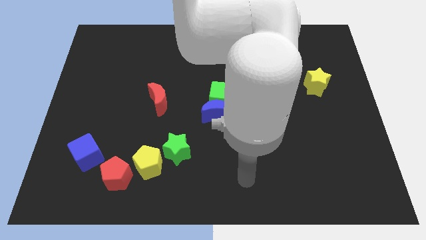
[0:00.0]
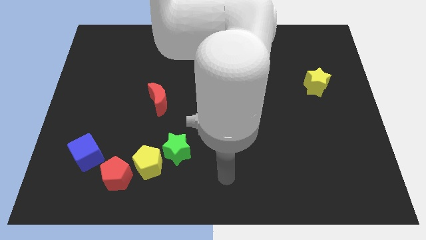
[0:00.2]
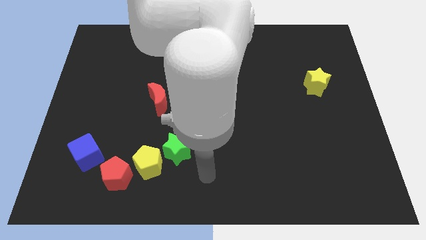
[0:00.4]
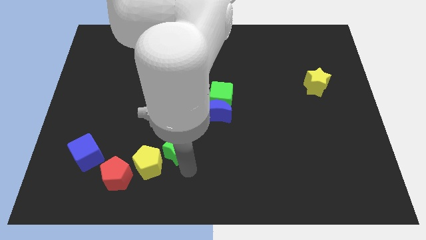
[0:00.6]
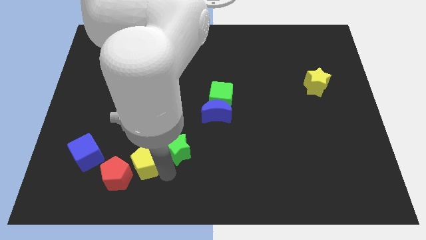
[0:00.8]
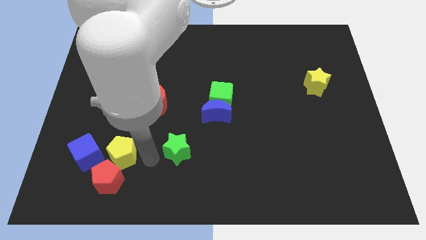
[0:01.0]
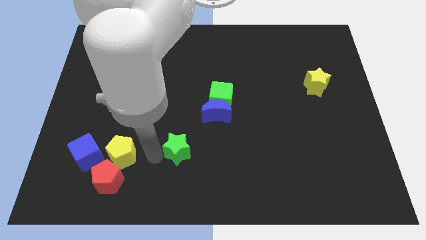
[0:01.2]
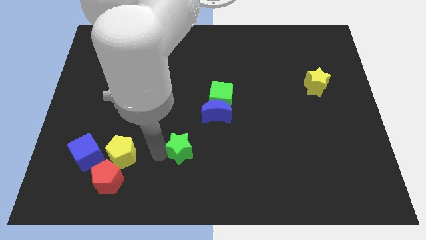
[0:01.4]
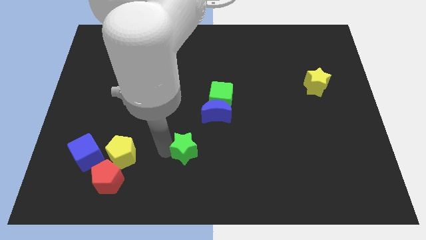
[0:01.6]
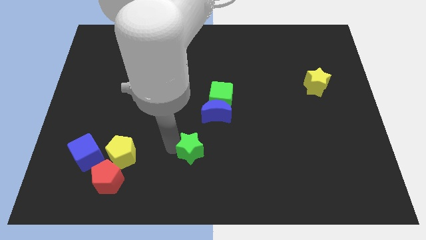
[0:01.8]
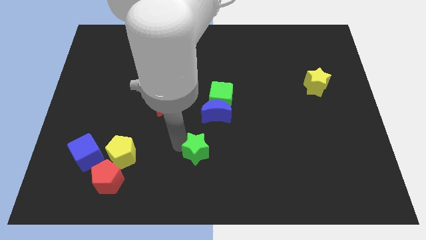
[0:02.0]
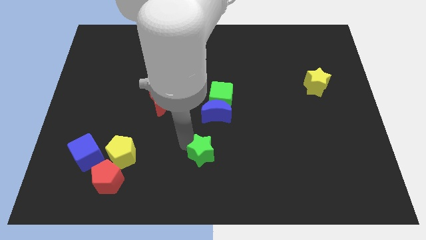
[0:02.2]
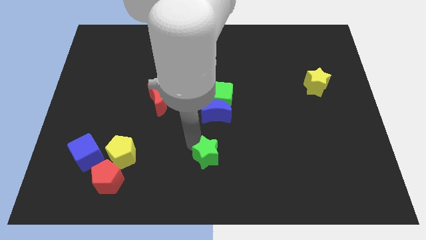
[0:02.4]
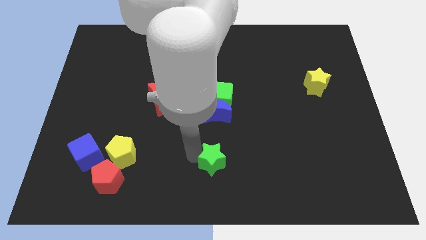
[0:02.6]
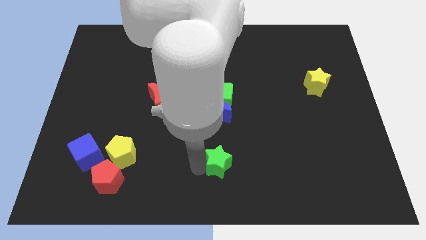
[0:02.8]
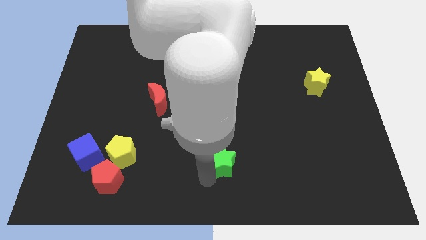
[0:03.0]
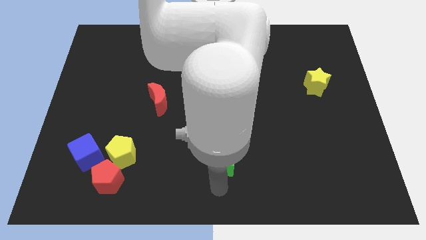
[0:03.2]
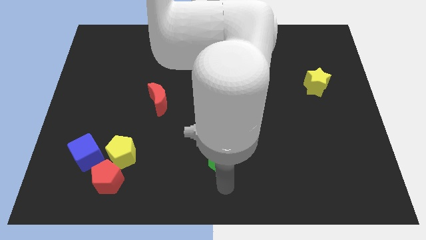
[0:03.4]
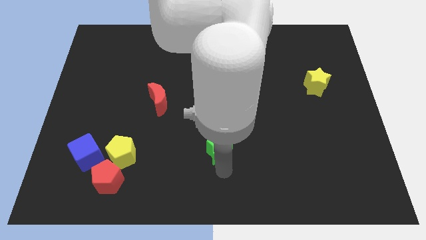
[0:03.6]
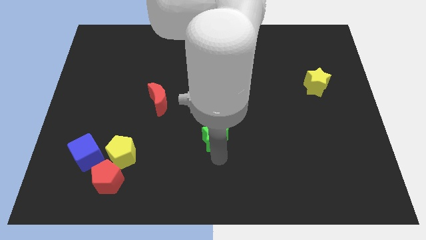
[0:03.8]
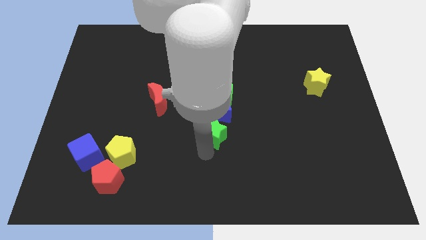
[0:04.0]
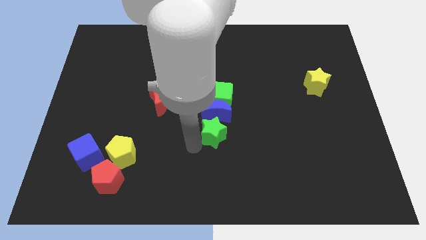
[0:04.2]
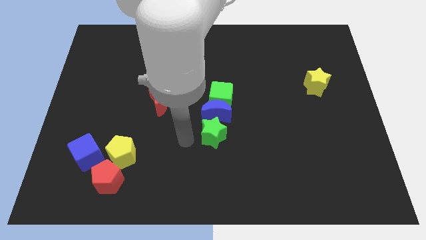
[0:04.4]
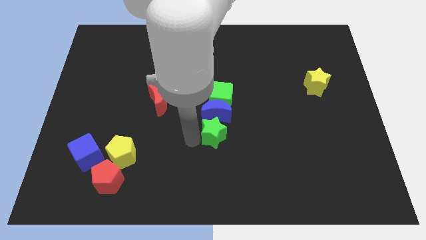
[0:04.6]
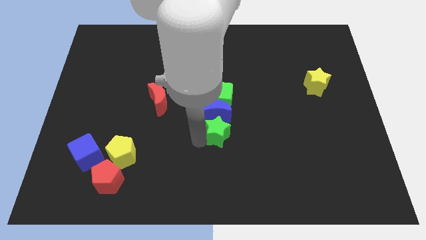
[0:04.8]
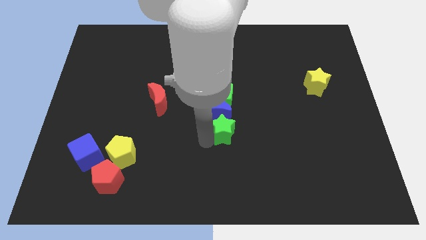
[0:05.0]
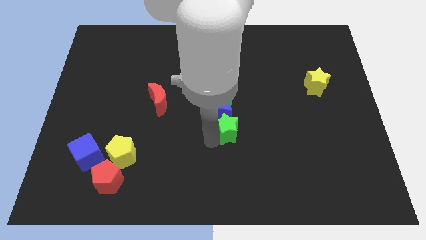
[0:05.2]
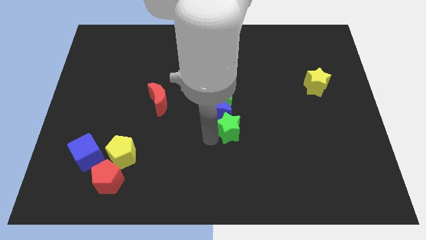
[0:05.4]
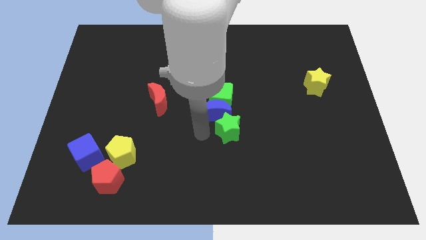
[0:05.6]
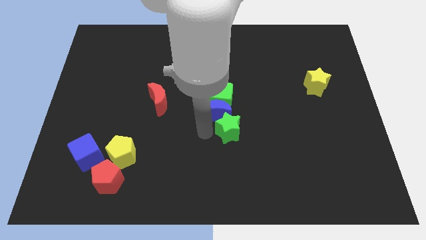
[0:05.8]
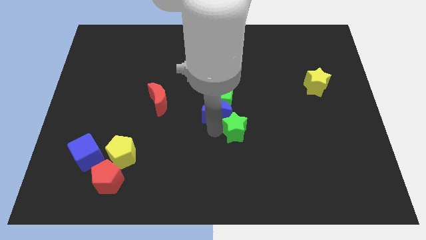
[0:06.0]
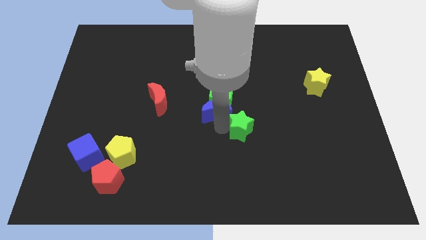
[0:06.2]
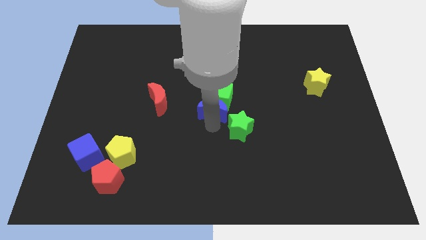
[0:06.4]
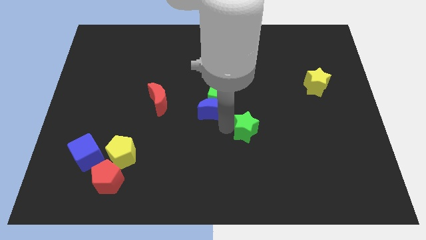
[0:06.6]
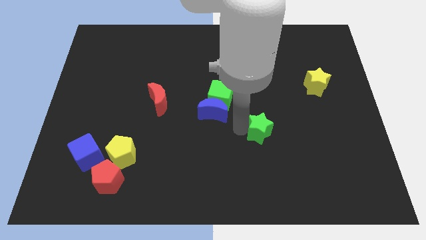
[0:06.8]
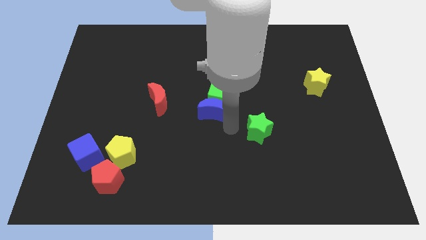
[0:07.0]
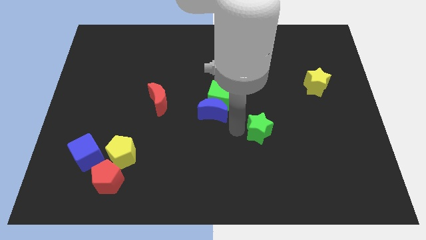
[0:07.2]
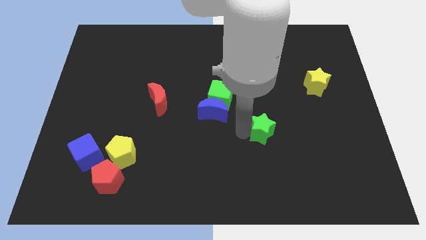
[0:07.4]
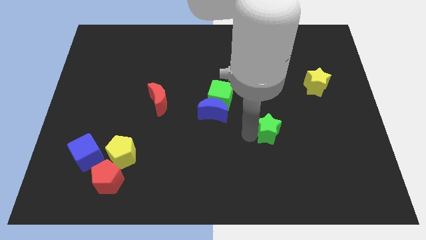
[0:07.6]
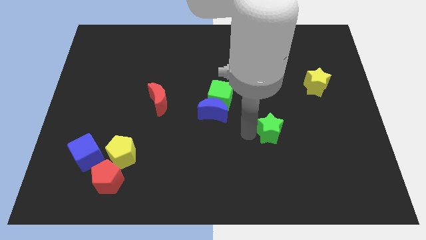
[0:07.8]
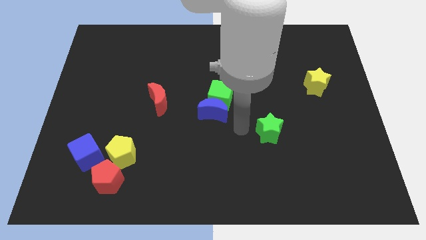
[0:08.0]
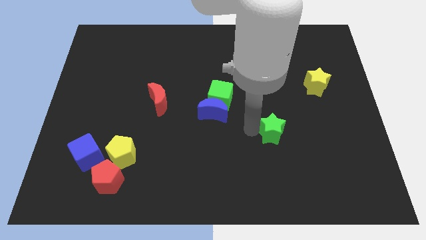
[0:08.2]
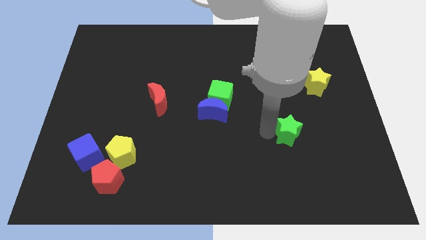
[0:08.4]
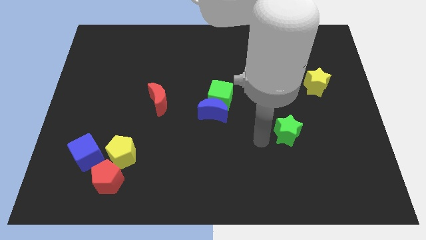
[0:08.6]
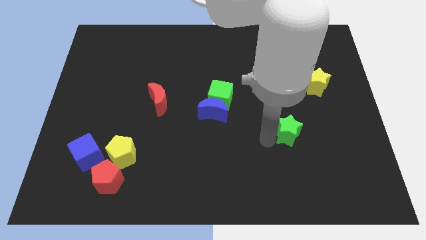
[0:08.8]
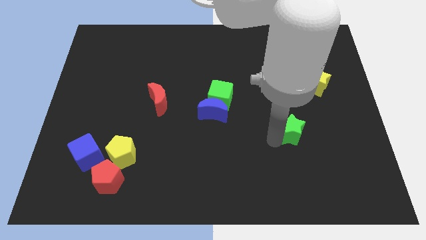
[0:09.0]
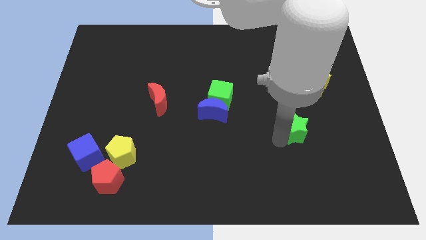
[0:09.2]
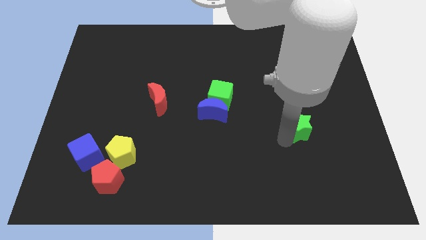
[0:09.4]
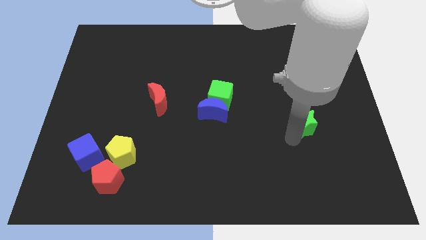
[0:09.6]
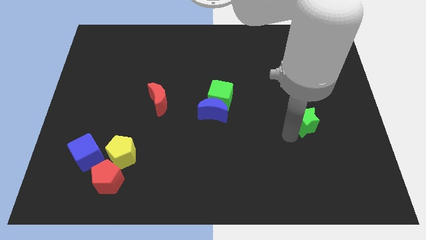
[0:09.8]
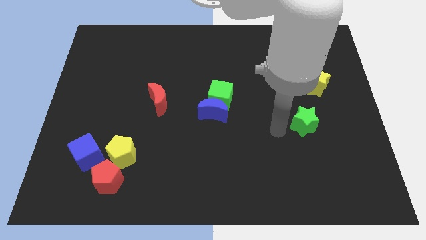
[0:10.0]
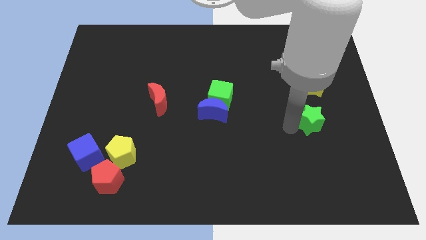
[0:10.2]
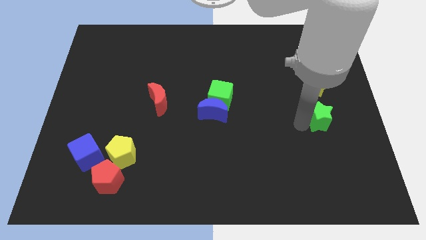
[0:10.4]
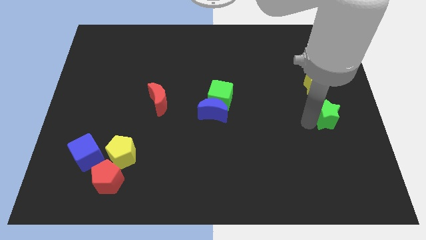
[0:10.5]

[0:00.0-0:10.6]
put the green star to the right side of the board

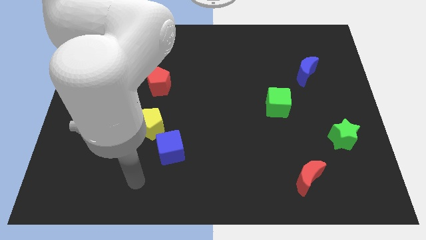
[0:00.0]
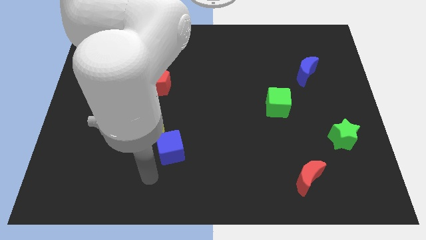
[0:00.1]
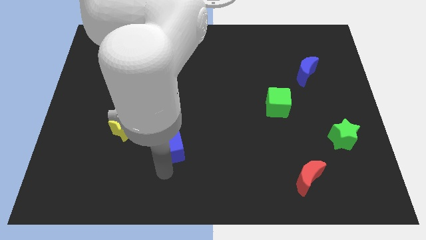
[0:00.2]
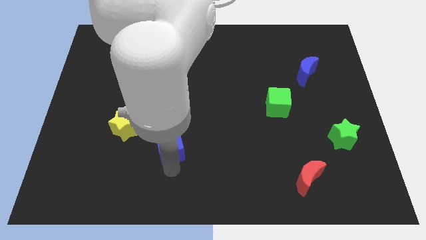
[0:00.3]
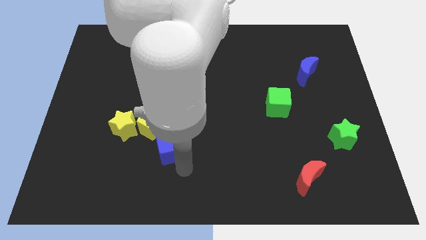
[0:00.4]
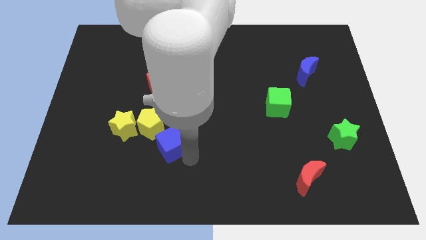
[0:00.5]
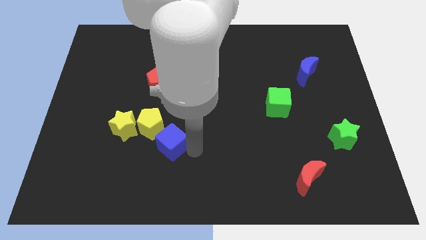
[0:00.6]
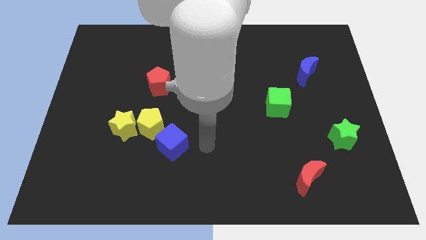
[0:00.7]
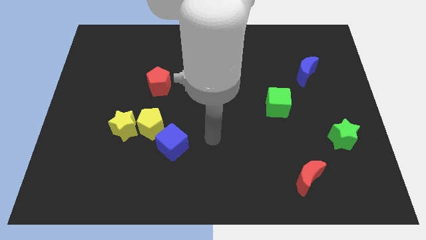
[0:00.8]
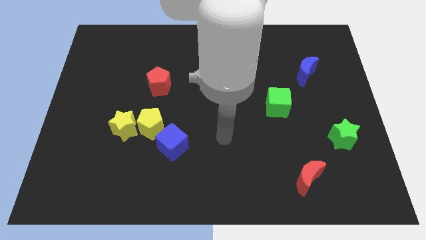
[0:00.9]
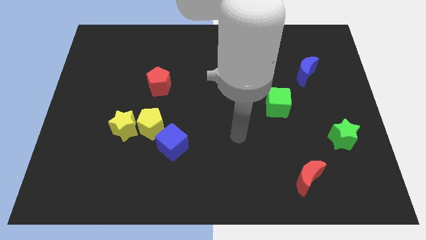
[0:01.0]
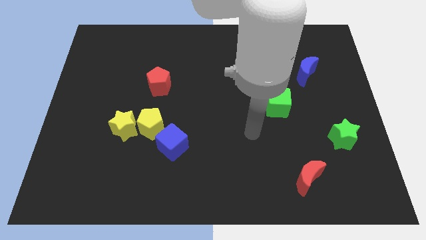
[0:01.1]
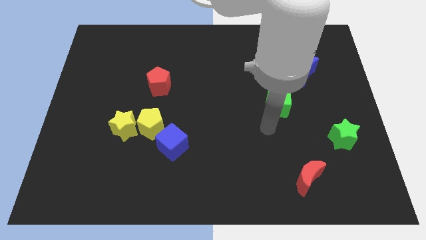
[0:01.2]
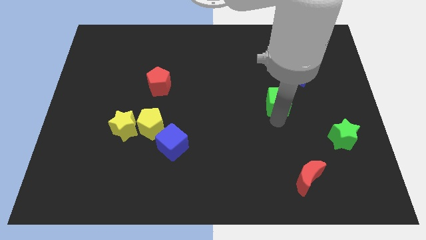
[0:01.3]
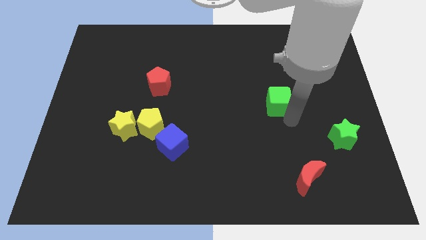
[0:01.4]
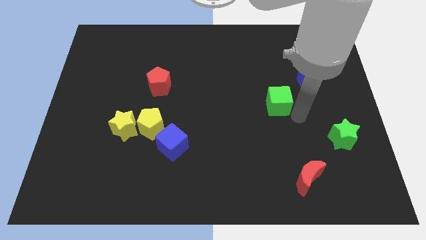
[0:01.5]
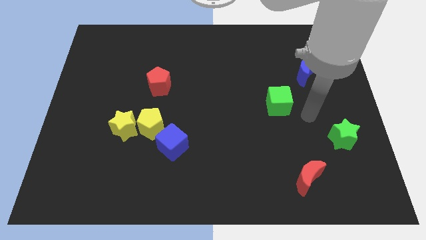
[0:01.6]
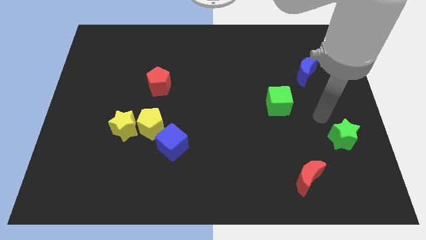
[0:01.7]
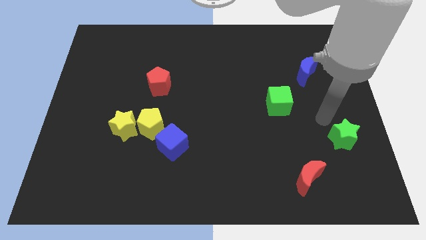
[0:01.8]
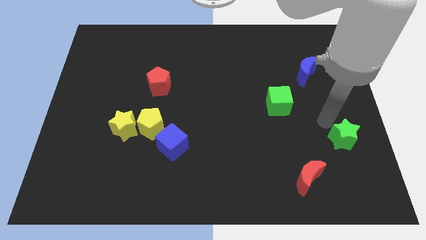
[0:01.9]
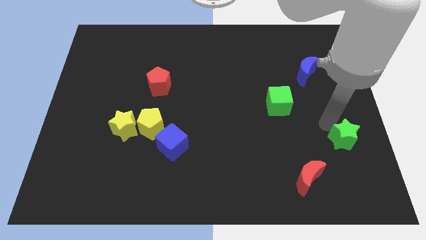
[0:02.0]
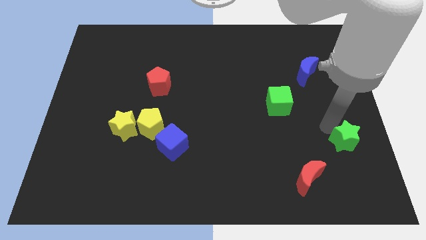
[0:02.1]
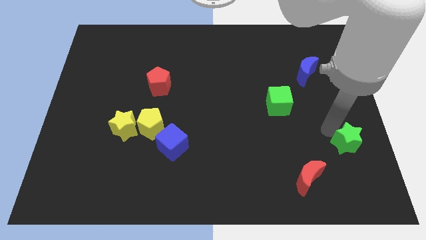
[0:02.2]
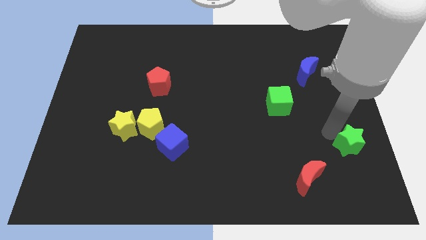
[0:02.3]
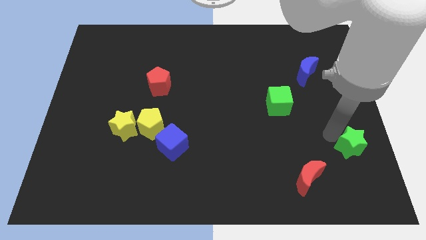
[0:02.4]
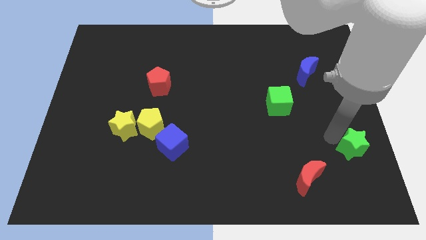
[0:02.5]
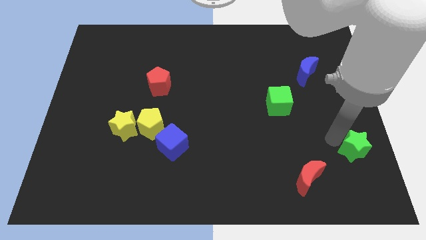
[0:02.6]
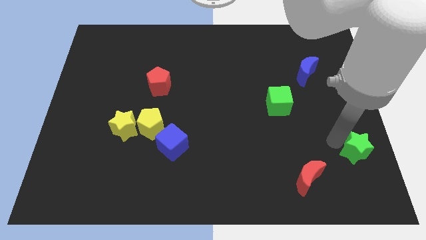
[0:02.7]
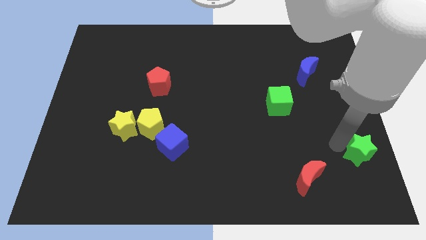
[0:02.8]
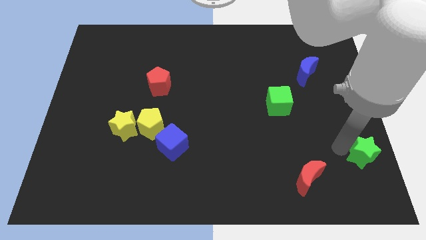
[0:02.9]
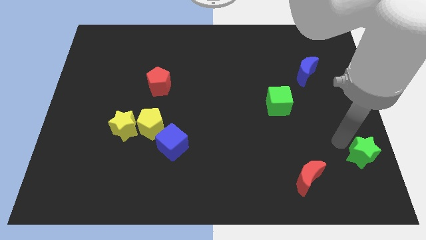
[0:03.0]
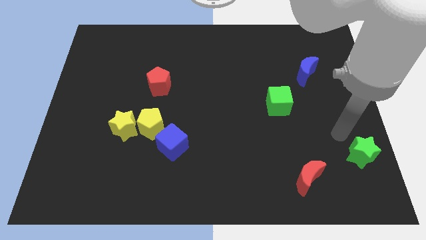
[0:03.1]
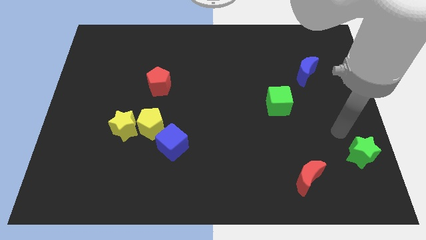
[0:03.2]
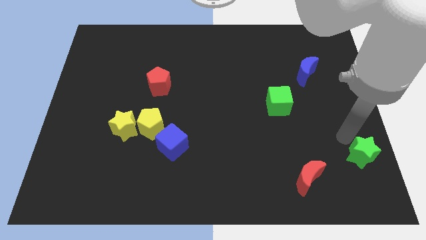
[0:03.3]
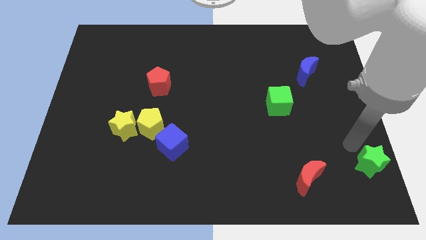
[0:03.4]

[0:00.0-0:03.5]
slide the green star to the bottom right of the board
